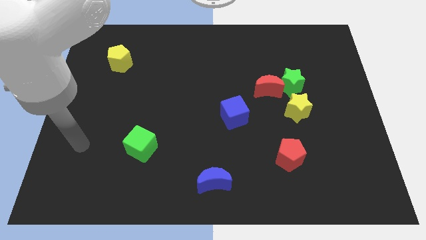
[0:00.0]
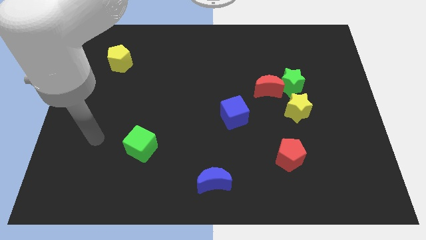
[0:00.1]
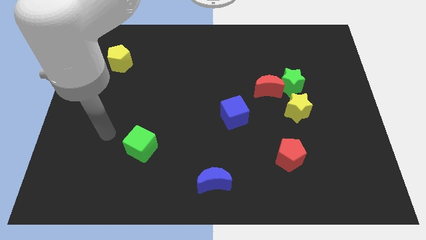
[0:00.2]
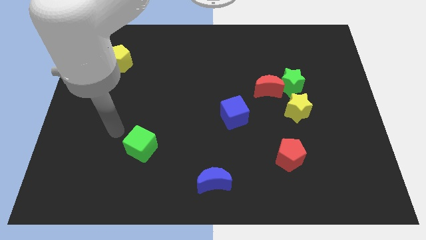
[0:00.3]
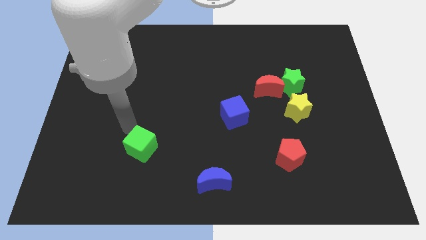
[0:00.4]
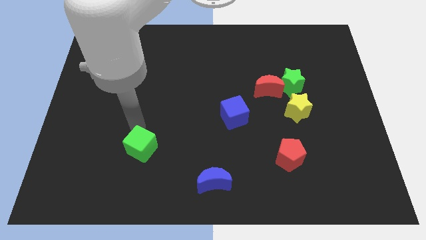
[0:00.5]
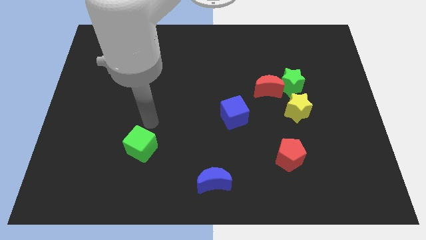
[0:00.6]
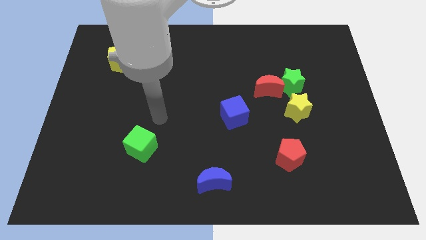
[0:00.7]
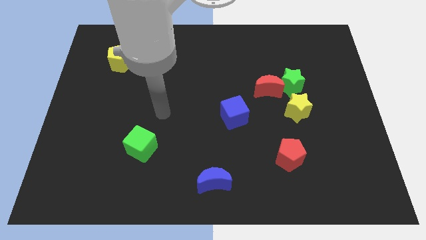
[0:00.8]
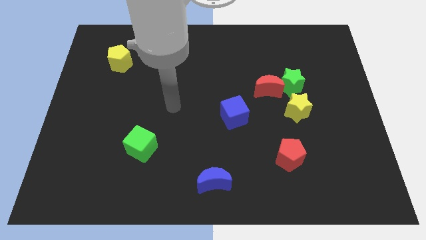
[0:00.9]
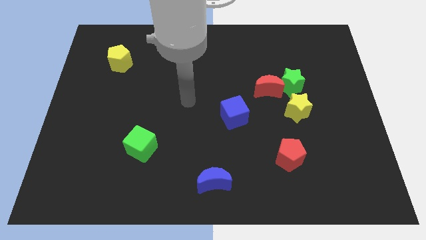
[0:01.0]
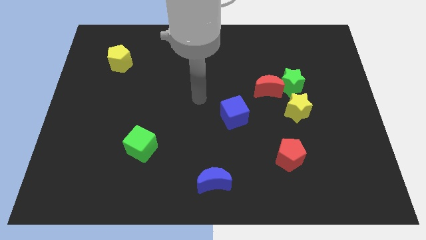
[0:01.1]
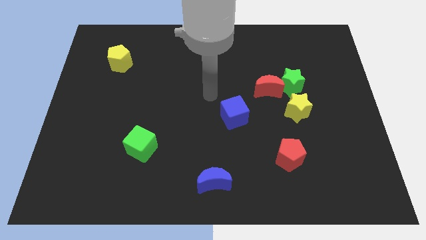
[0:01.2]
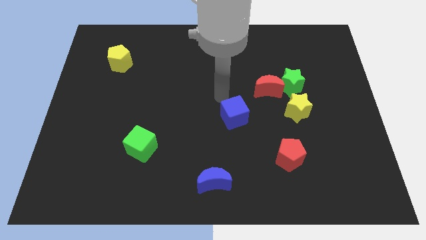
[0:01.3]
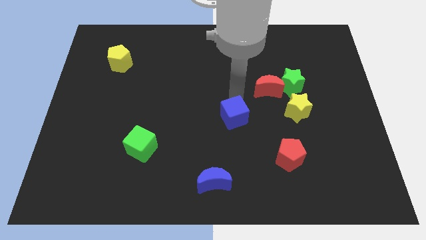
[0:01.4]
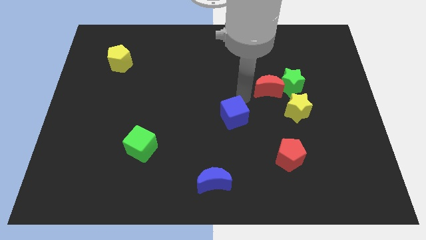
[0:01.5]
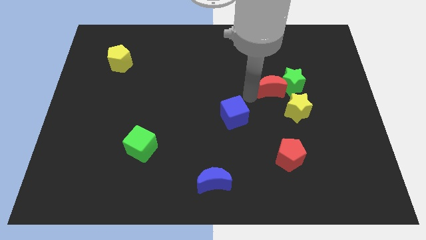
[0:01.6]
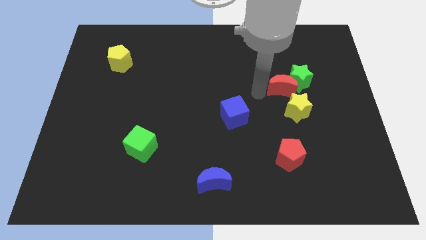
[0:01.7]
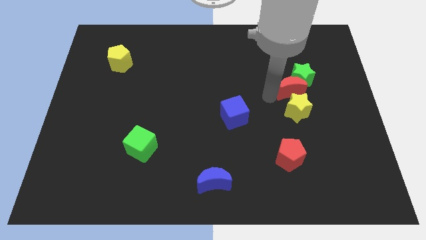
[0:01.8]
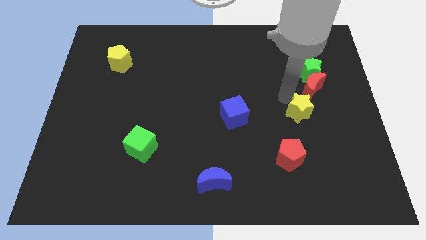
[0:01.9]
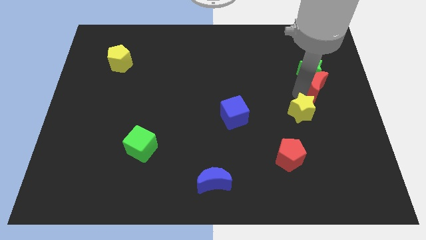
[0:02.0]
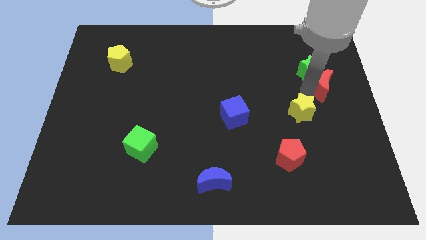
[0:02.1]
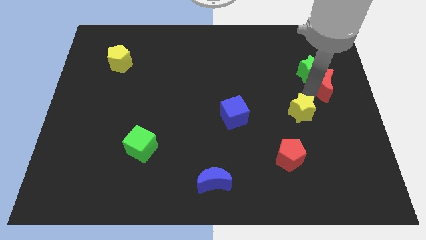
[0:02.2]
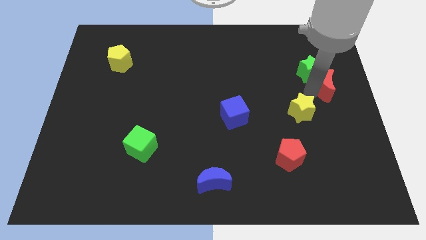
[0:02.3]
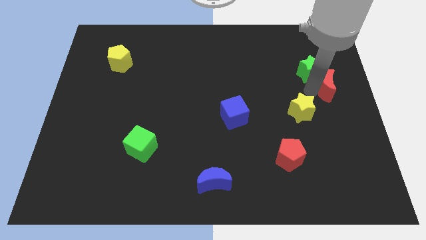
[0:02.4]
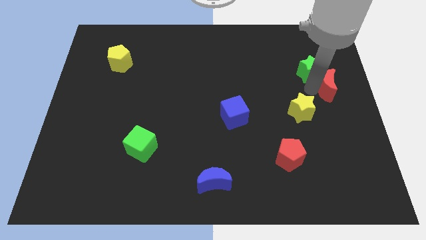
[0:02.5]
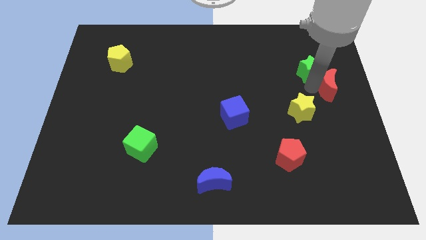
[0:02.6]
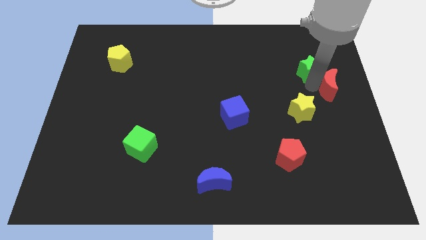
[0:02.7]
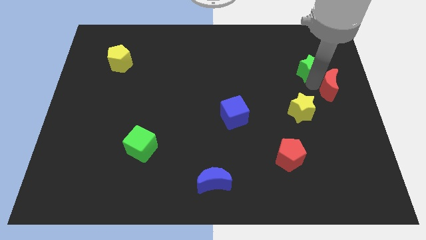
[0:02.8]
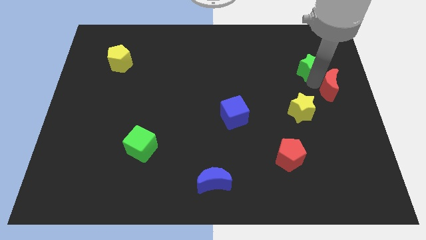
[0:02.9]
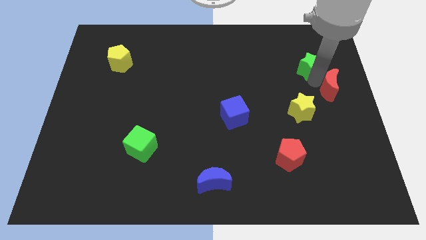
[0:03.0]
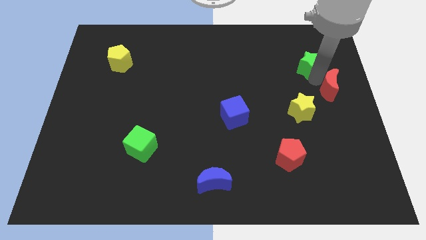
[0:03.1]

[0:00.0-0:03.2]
move the green star away from the red moon and yellow star

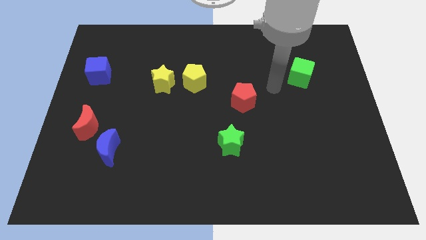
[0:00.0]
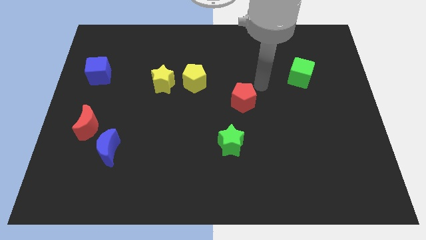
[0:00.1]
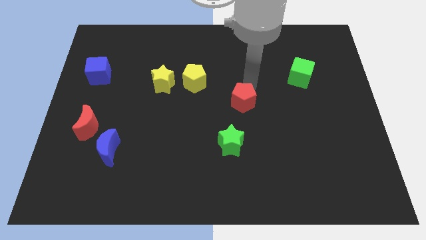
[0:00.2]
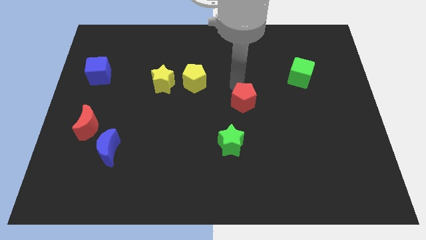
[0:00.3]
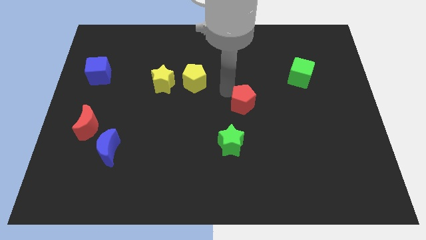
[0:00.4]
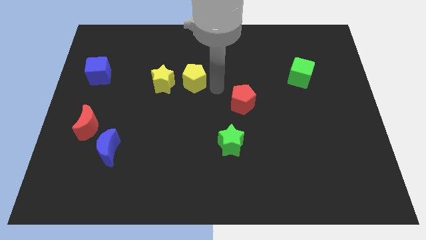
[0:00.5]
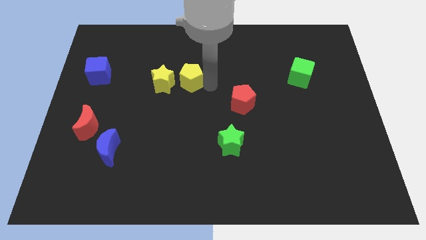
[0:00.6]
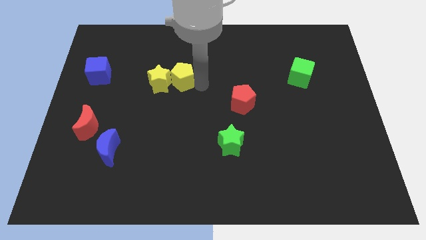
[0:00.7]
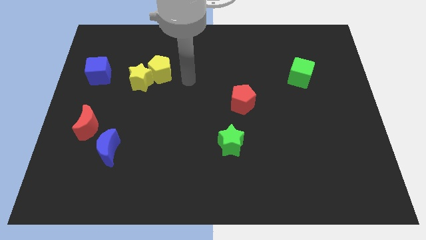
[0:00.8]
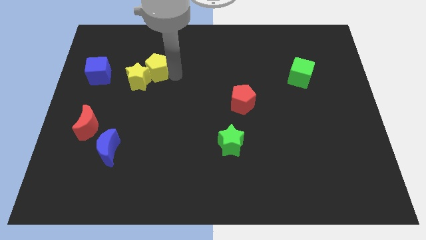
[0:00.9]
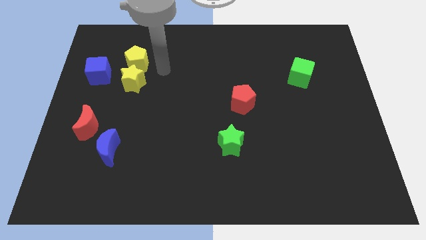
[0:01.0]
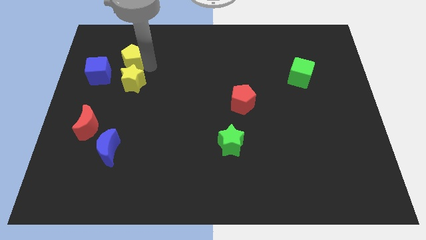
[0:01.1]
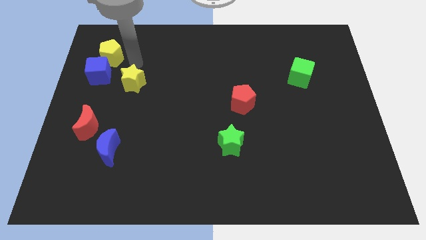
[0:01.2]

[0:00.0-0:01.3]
pull the yellow star apart from the yellow pentagon

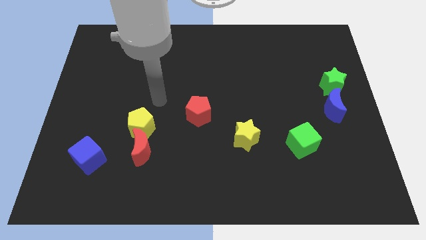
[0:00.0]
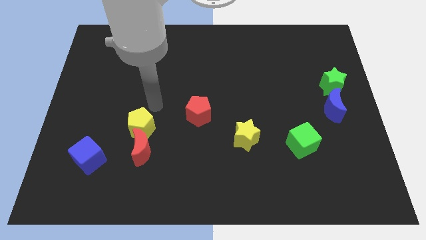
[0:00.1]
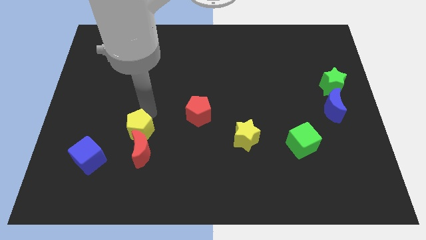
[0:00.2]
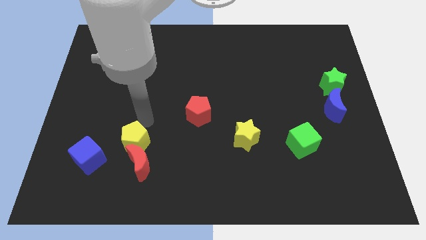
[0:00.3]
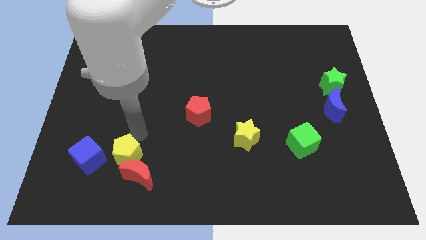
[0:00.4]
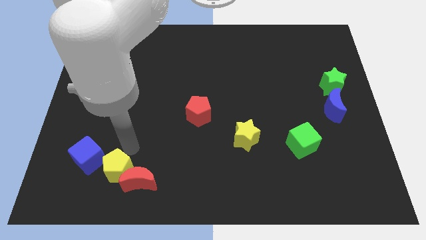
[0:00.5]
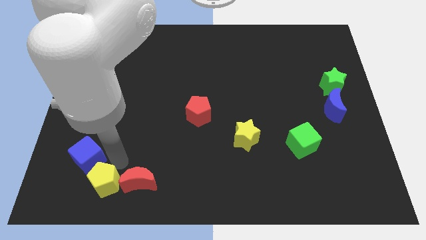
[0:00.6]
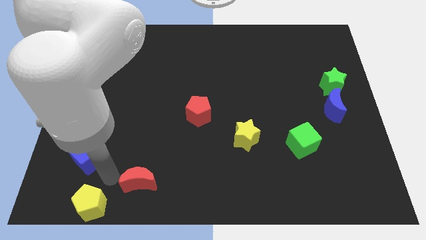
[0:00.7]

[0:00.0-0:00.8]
move the red moon away from the yellow pentagon

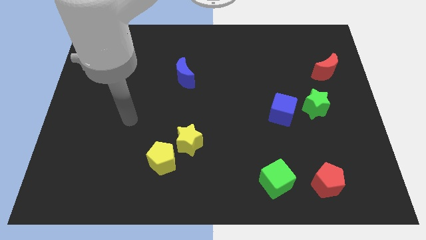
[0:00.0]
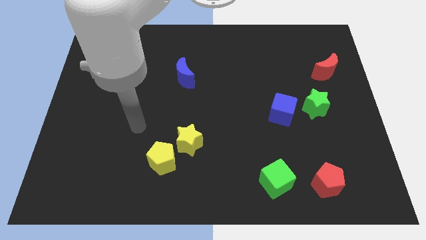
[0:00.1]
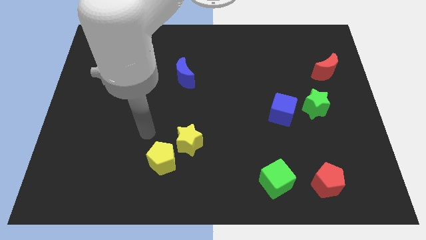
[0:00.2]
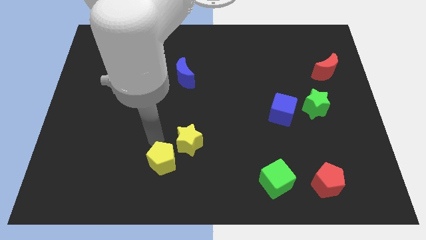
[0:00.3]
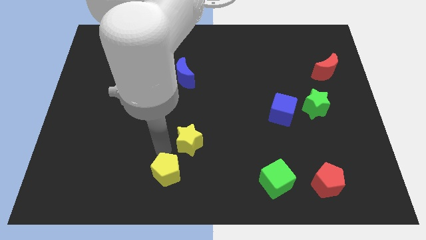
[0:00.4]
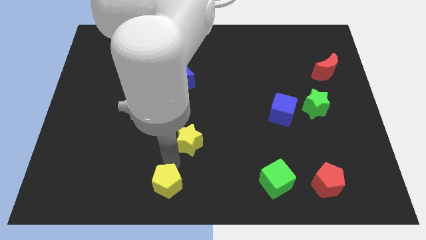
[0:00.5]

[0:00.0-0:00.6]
move the yellow star away from the yellow pentagon

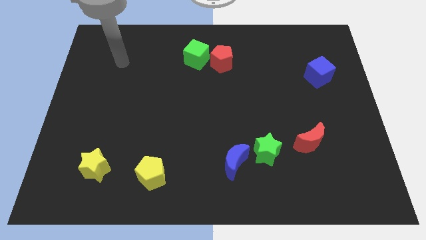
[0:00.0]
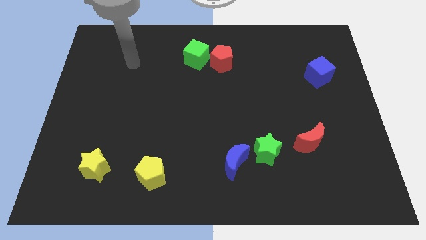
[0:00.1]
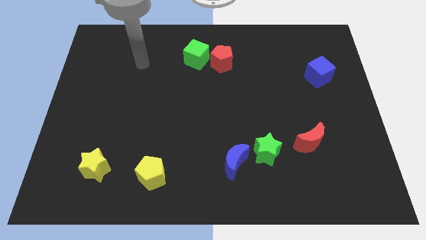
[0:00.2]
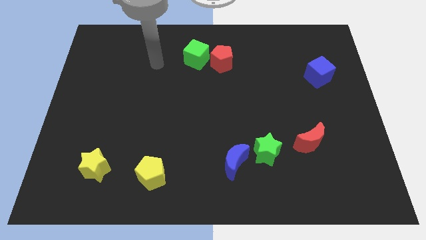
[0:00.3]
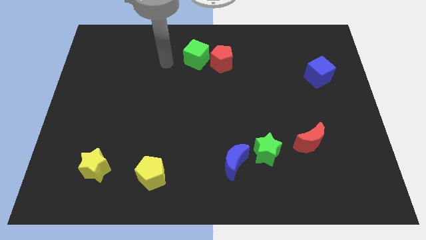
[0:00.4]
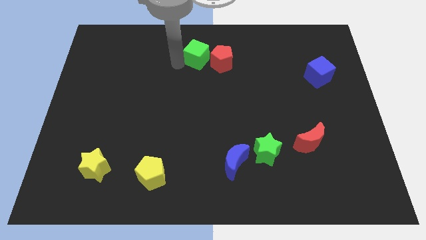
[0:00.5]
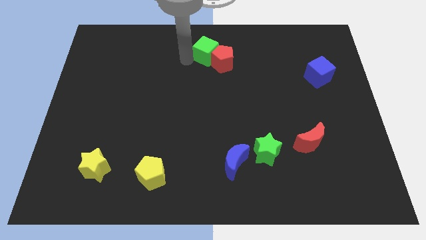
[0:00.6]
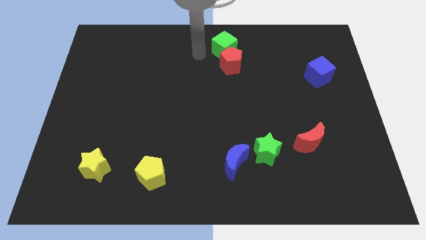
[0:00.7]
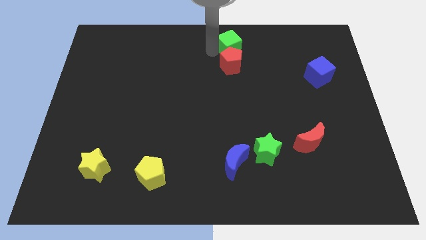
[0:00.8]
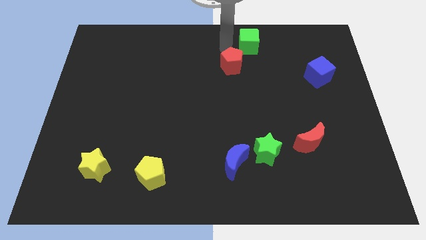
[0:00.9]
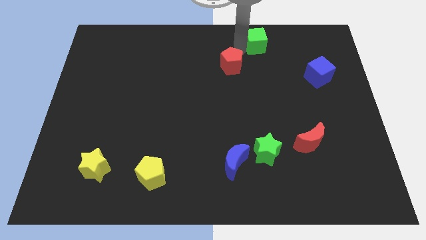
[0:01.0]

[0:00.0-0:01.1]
separate the red pentagon from the green cube

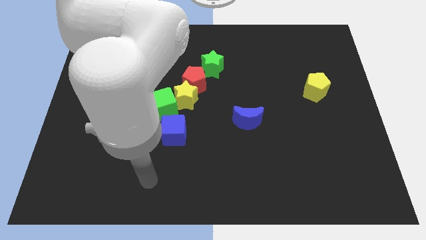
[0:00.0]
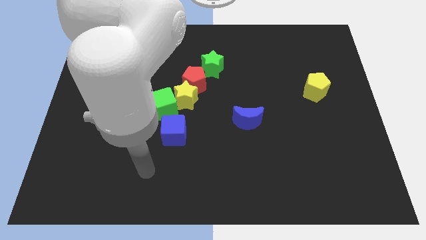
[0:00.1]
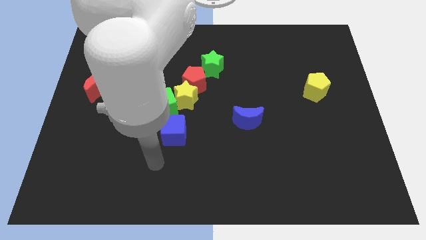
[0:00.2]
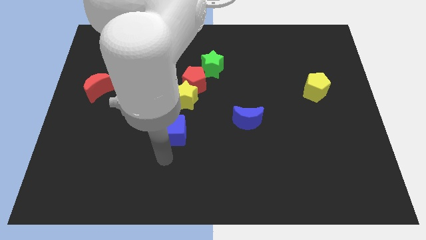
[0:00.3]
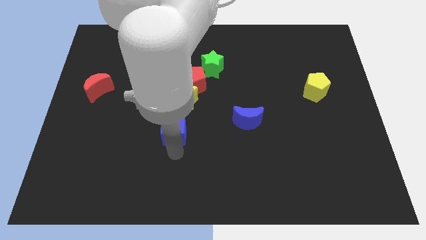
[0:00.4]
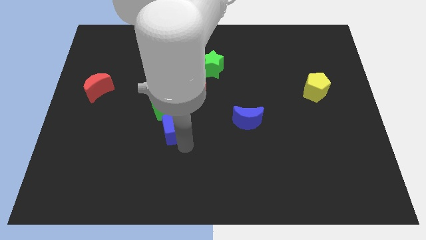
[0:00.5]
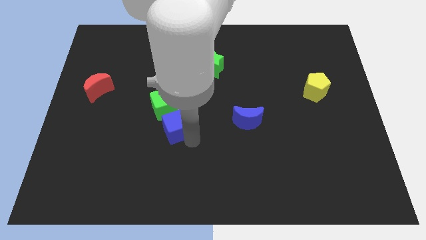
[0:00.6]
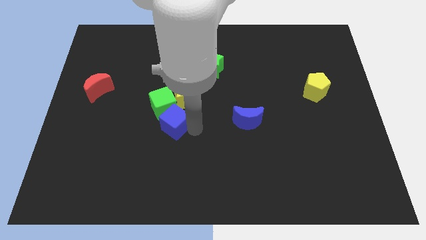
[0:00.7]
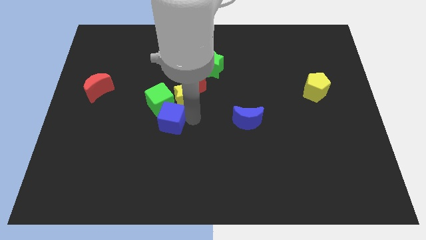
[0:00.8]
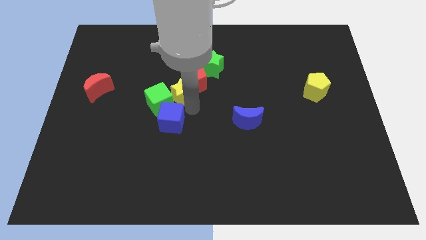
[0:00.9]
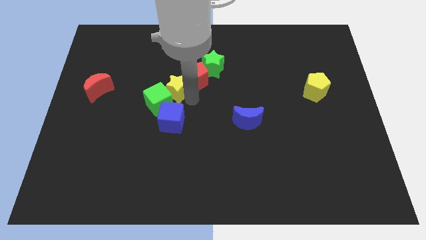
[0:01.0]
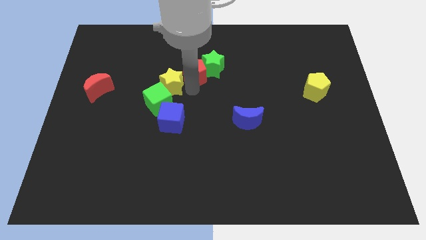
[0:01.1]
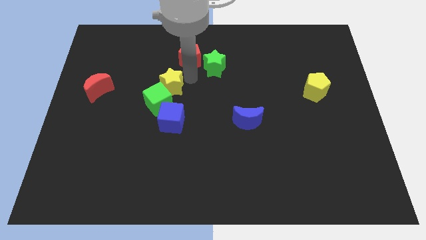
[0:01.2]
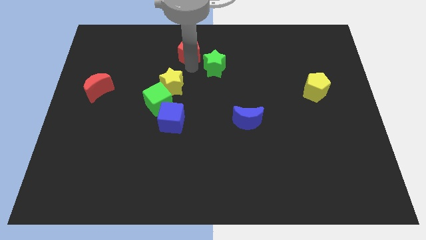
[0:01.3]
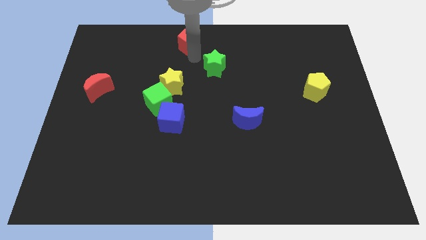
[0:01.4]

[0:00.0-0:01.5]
move the green star away from the red pentagon

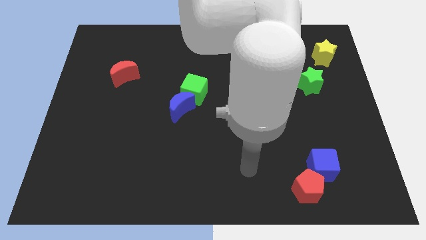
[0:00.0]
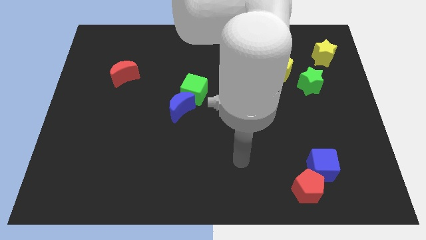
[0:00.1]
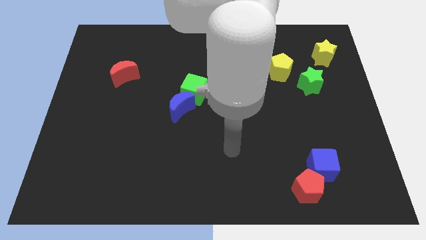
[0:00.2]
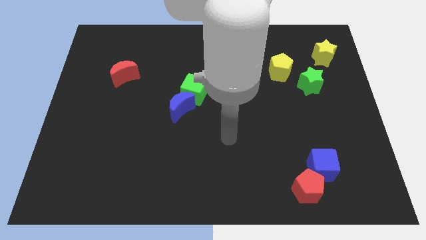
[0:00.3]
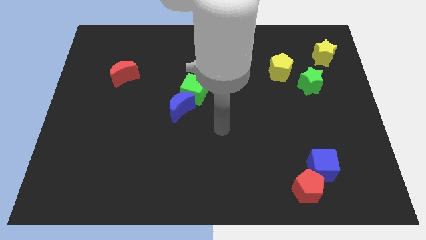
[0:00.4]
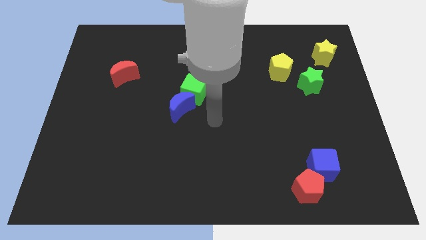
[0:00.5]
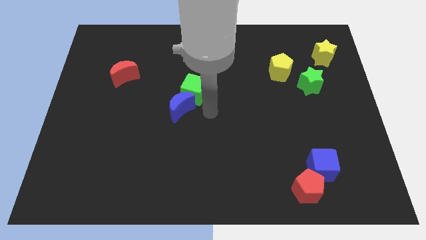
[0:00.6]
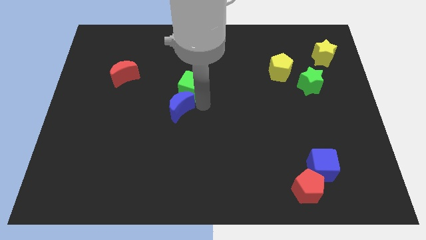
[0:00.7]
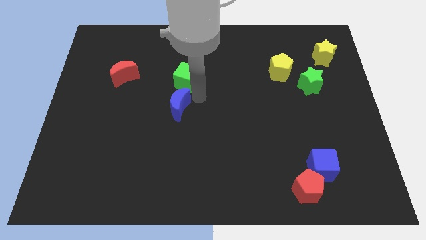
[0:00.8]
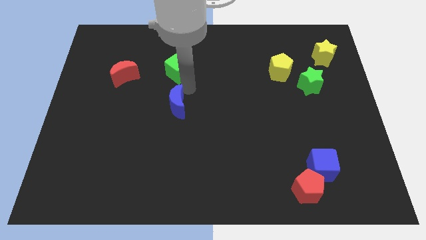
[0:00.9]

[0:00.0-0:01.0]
pull the blue moon apart from the green cube
